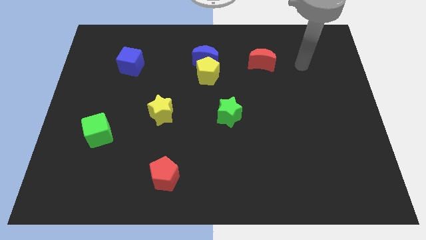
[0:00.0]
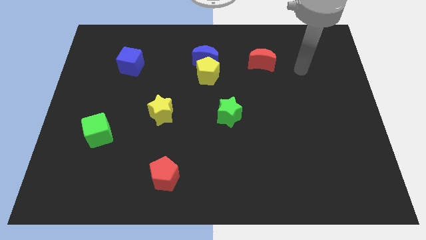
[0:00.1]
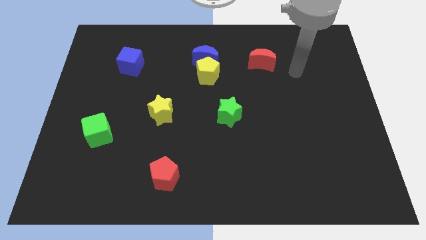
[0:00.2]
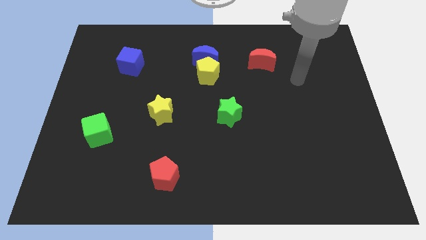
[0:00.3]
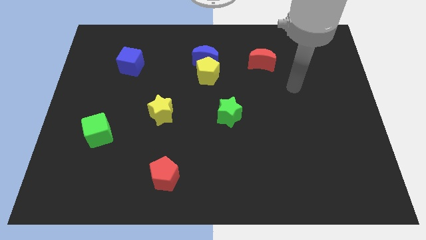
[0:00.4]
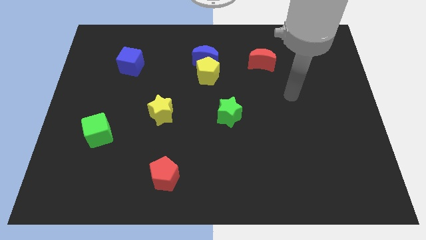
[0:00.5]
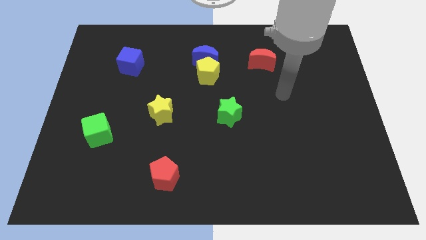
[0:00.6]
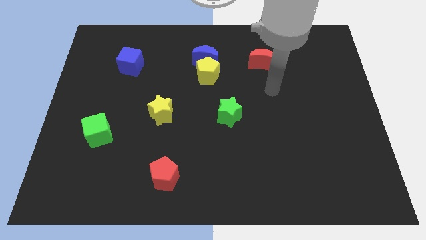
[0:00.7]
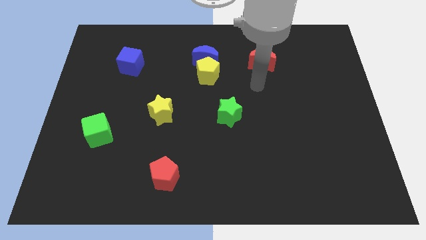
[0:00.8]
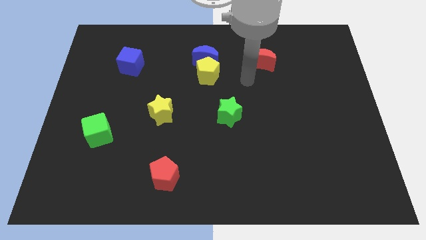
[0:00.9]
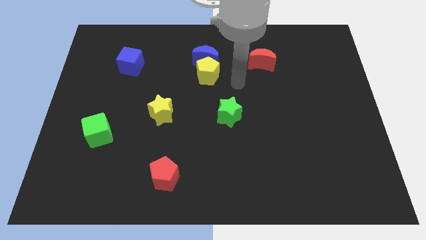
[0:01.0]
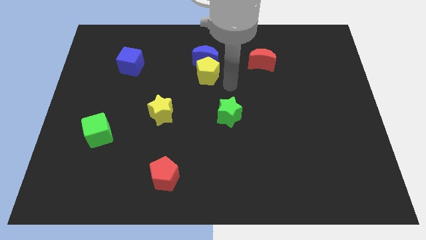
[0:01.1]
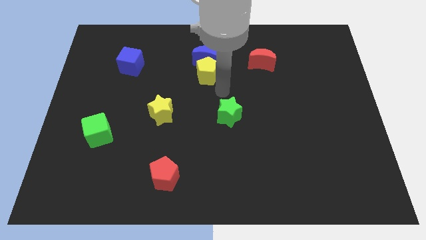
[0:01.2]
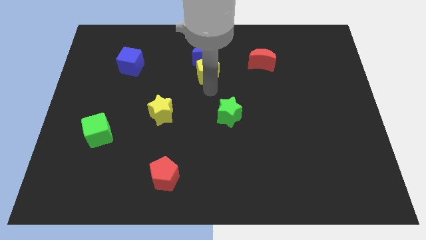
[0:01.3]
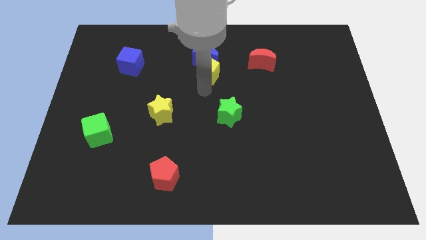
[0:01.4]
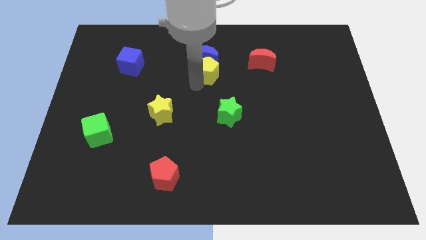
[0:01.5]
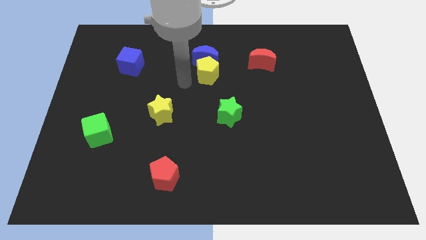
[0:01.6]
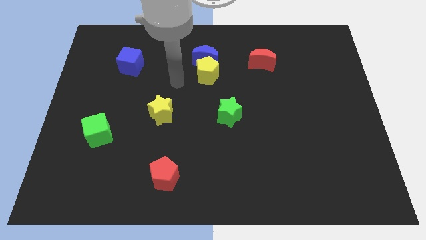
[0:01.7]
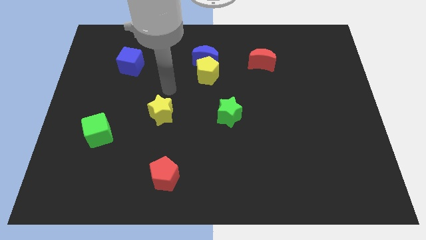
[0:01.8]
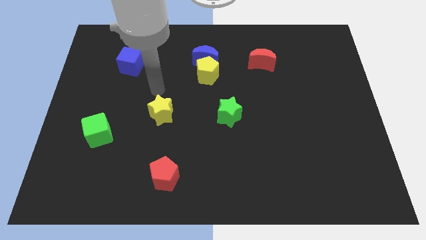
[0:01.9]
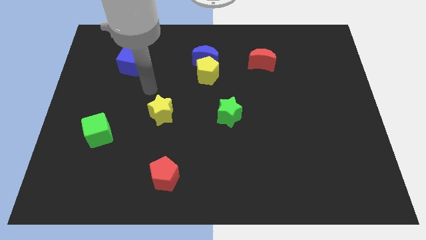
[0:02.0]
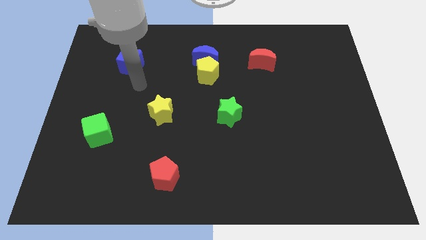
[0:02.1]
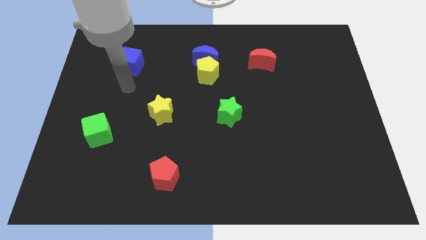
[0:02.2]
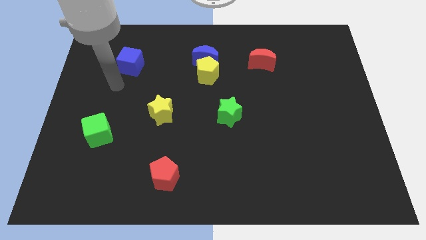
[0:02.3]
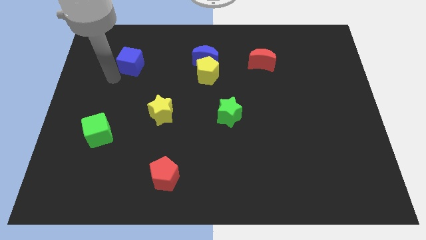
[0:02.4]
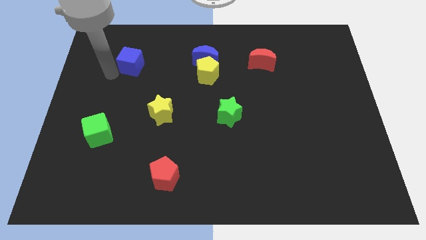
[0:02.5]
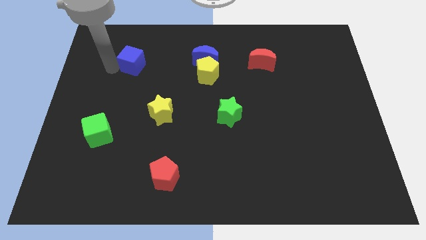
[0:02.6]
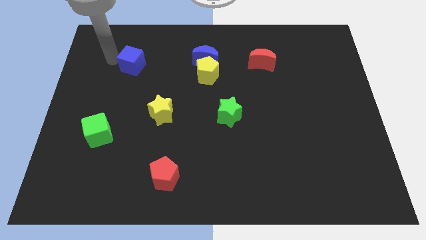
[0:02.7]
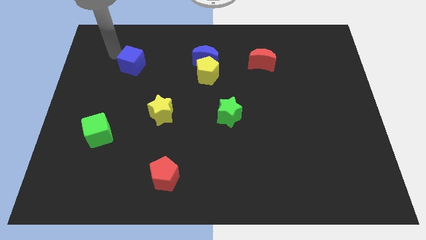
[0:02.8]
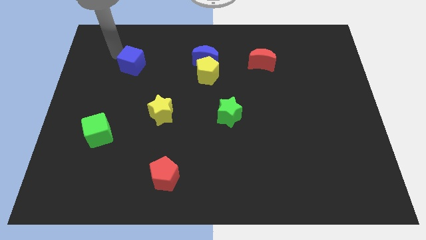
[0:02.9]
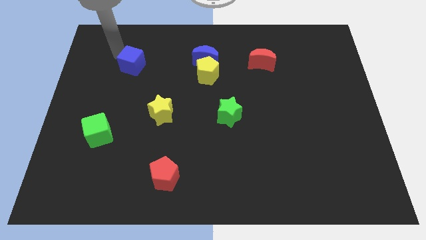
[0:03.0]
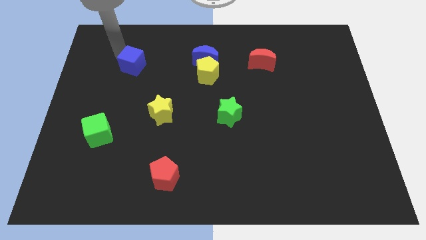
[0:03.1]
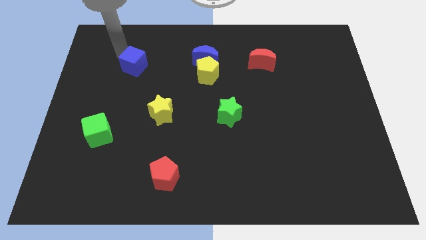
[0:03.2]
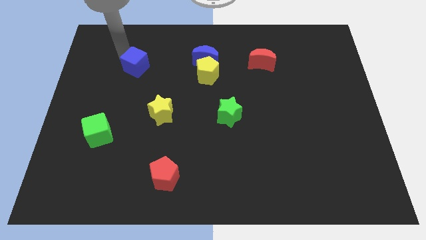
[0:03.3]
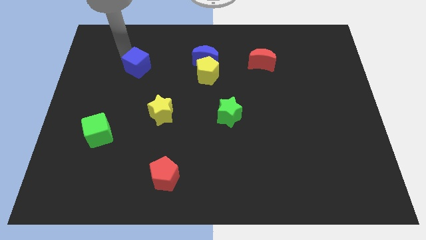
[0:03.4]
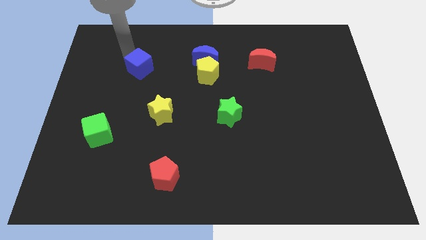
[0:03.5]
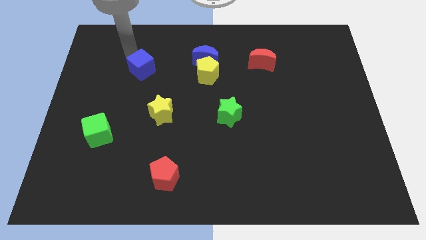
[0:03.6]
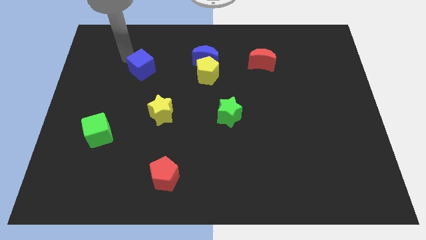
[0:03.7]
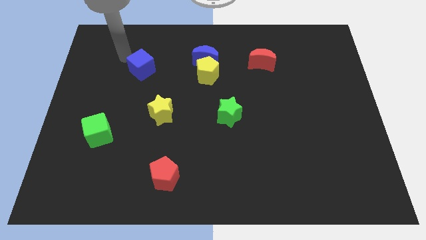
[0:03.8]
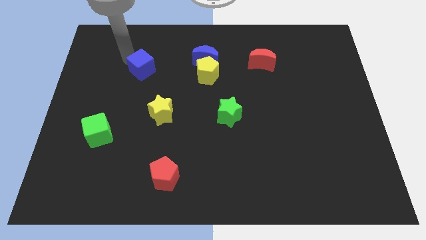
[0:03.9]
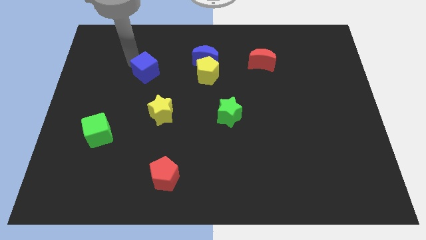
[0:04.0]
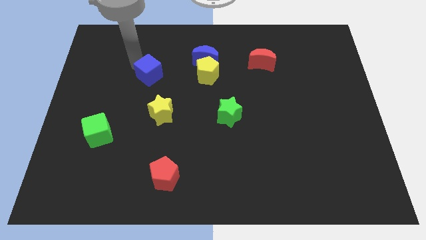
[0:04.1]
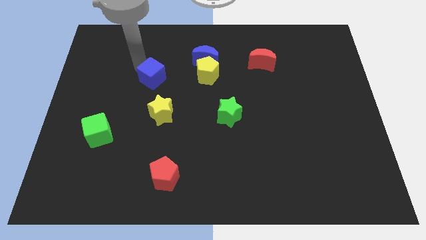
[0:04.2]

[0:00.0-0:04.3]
move the blue cube somewhat diagonally down and right

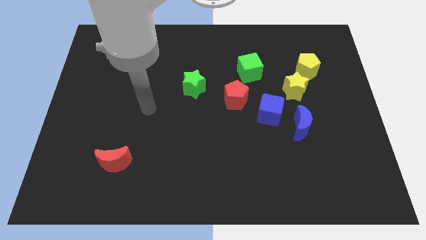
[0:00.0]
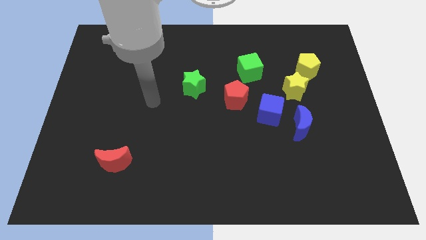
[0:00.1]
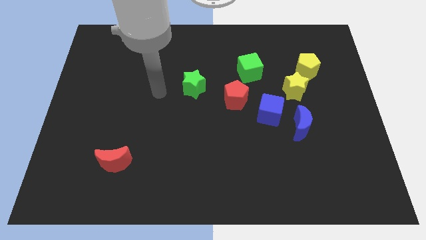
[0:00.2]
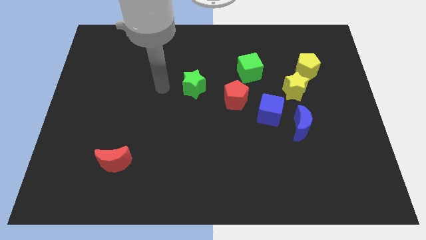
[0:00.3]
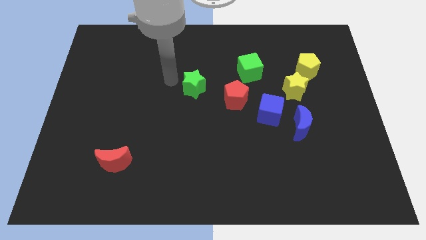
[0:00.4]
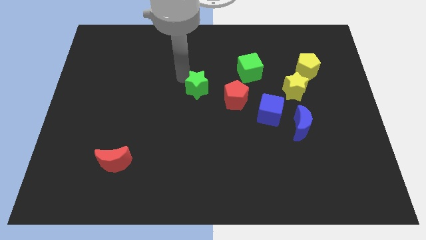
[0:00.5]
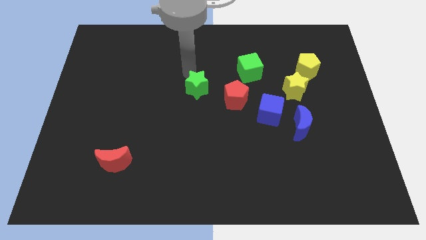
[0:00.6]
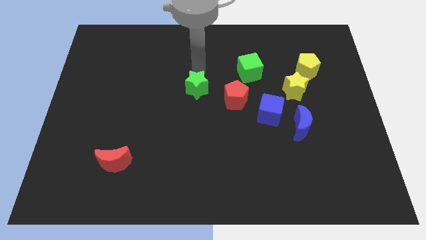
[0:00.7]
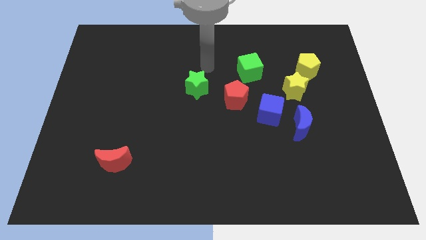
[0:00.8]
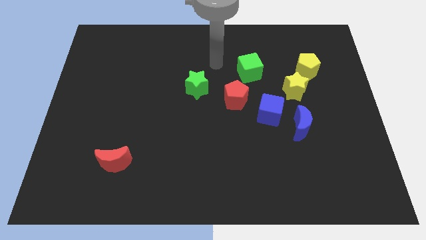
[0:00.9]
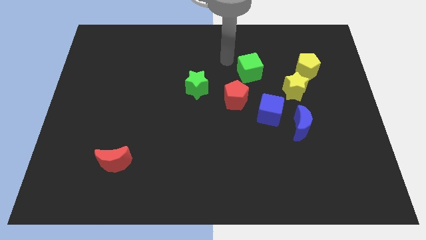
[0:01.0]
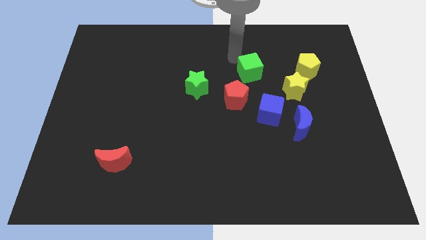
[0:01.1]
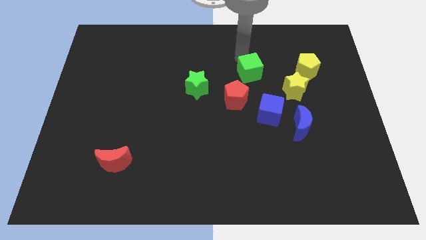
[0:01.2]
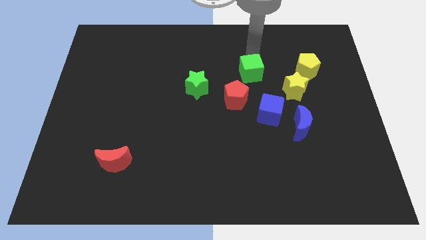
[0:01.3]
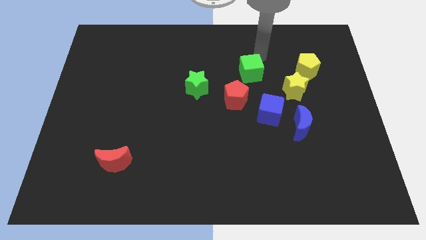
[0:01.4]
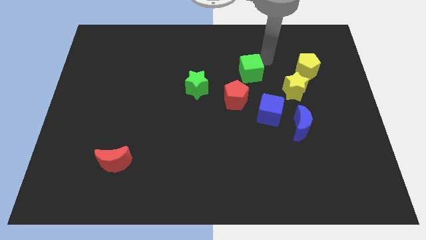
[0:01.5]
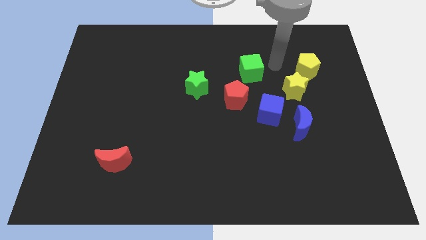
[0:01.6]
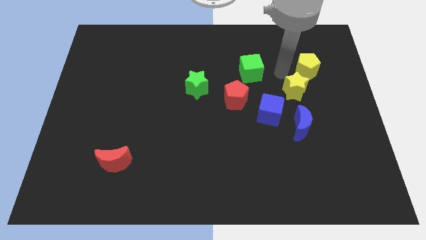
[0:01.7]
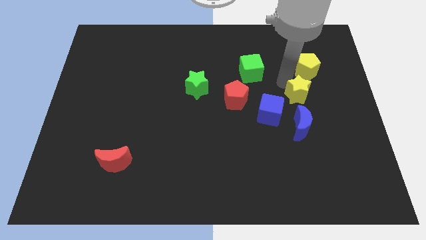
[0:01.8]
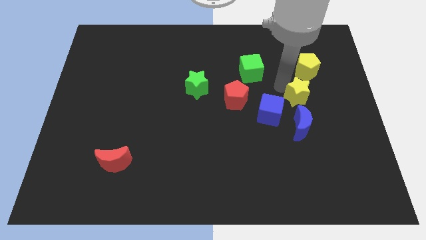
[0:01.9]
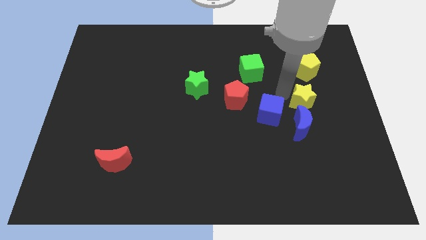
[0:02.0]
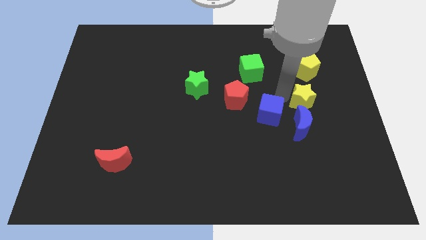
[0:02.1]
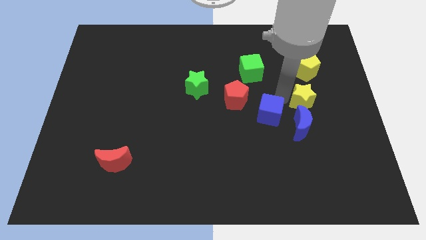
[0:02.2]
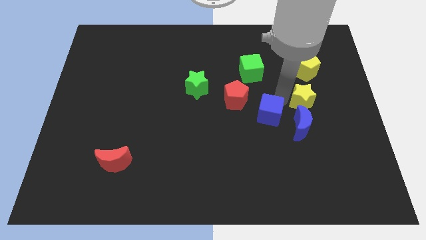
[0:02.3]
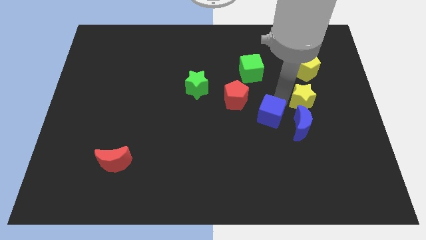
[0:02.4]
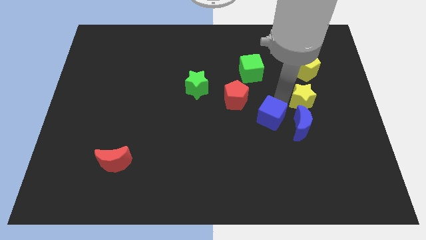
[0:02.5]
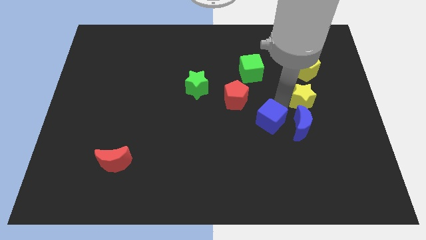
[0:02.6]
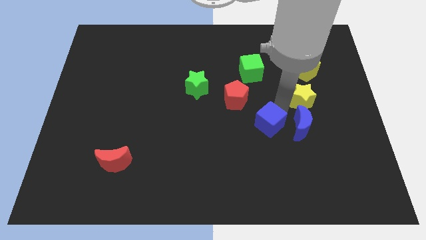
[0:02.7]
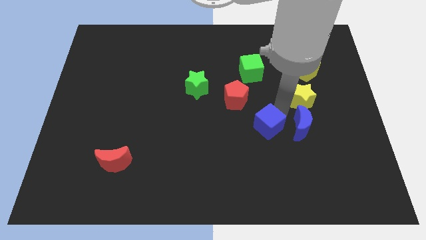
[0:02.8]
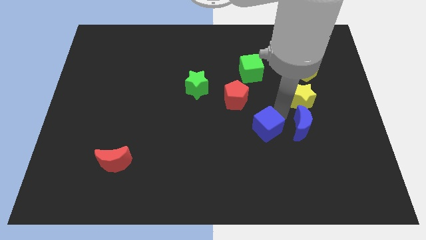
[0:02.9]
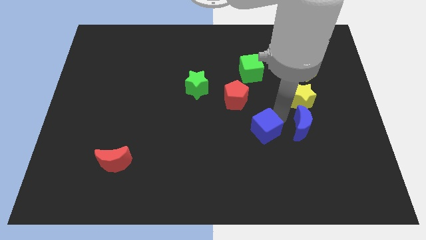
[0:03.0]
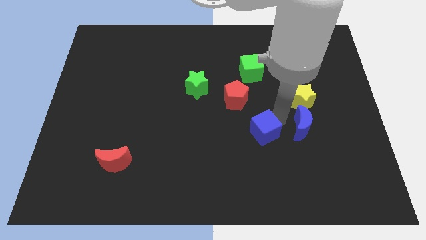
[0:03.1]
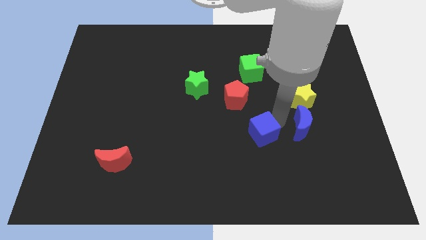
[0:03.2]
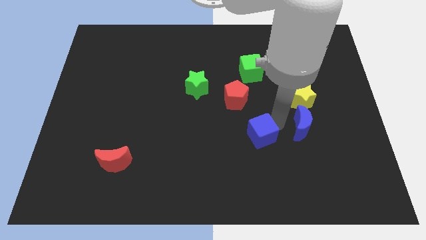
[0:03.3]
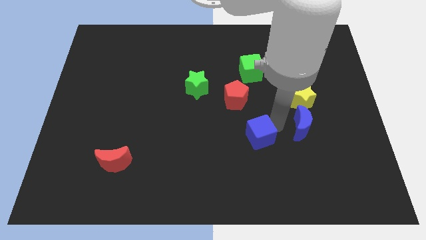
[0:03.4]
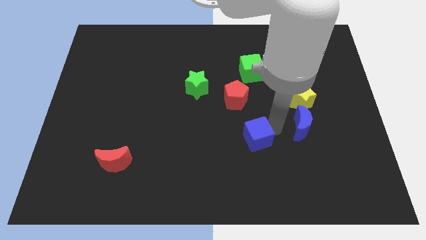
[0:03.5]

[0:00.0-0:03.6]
slightly move the blue cube downwards and to the left diagonally
